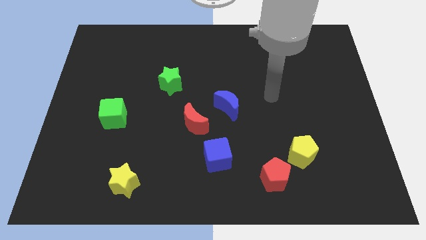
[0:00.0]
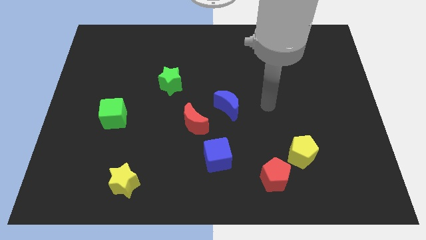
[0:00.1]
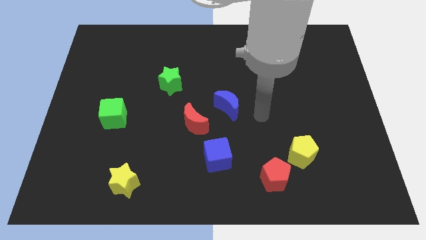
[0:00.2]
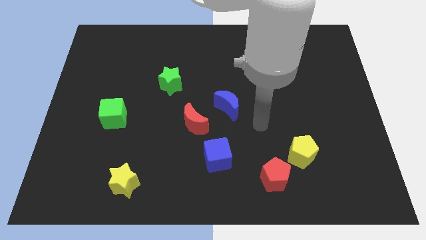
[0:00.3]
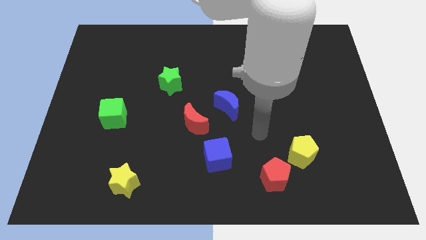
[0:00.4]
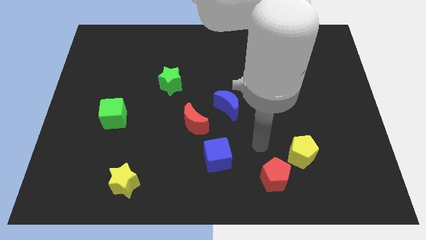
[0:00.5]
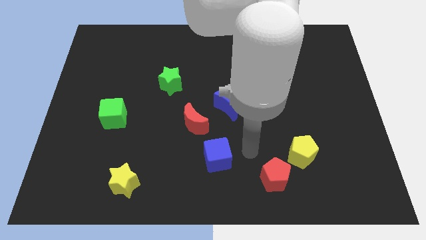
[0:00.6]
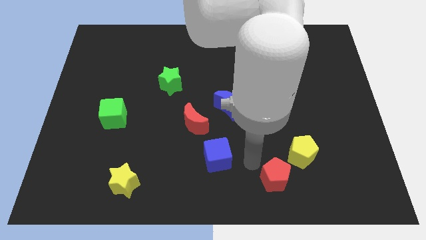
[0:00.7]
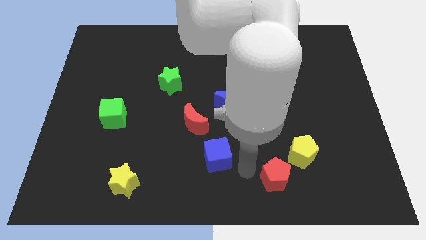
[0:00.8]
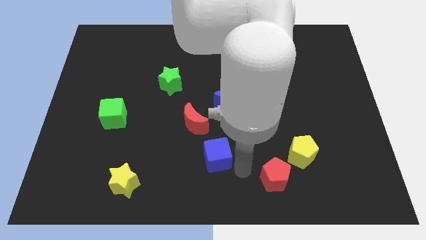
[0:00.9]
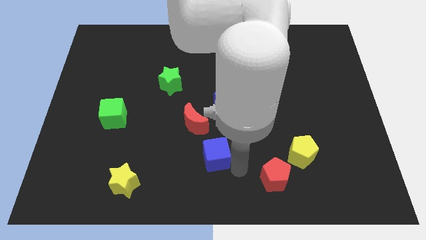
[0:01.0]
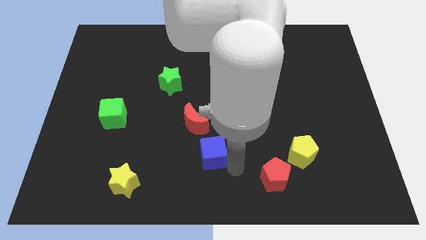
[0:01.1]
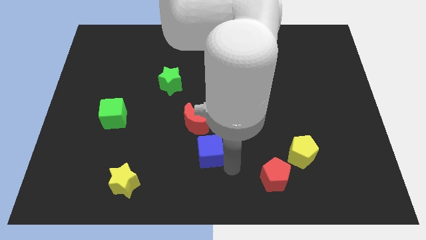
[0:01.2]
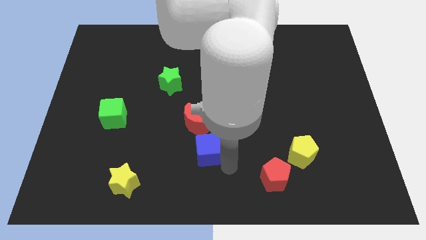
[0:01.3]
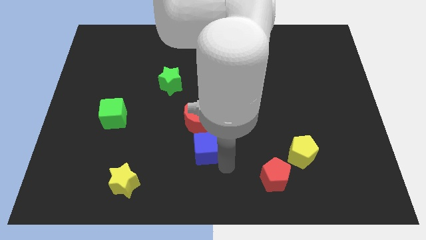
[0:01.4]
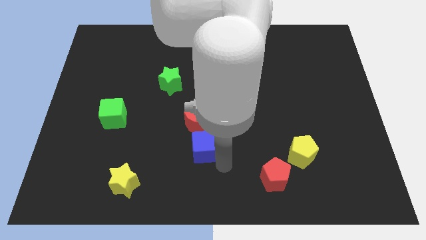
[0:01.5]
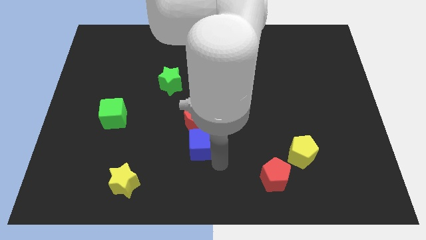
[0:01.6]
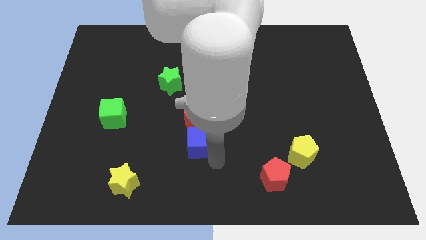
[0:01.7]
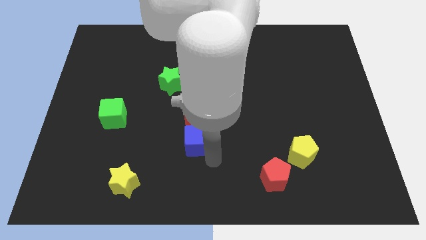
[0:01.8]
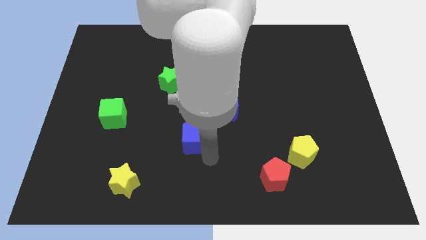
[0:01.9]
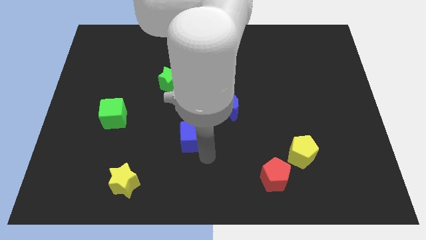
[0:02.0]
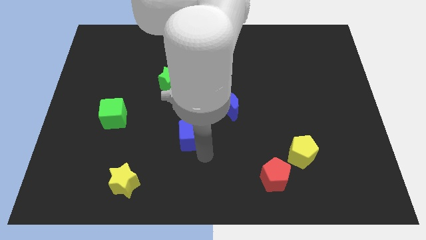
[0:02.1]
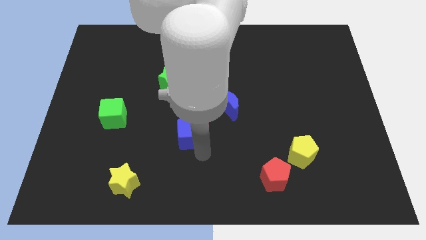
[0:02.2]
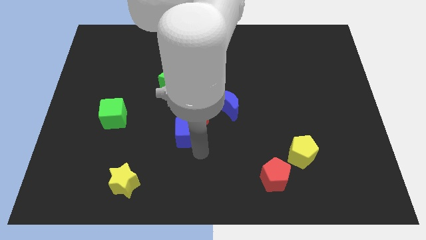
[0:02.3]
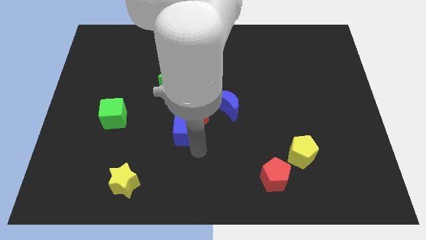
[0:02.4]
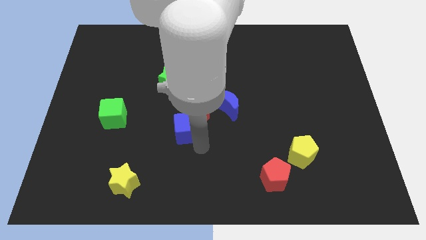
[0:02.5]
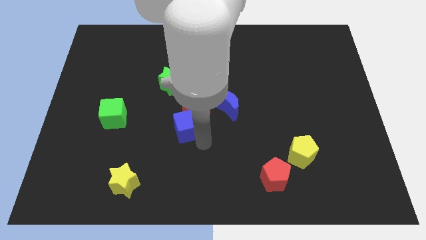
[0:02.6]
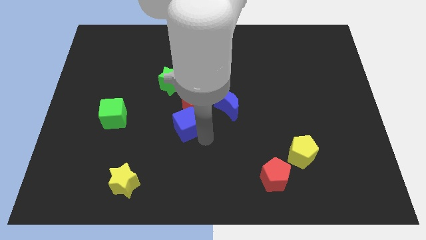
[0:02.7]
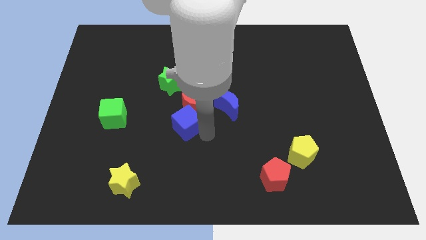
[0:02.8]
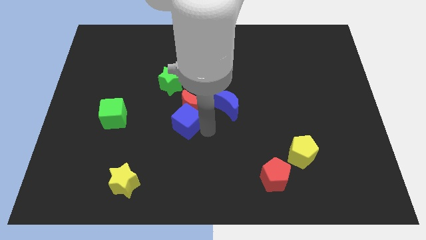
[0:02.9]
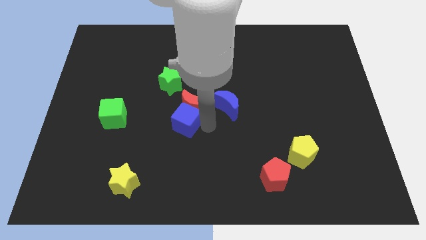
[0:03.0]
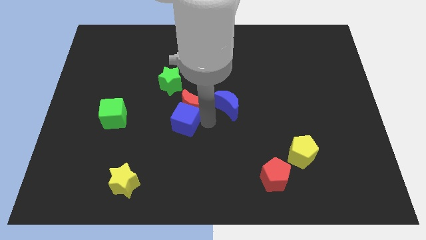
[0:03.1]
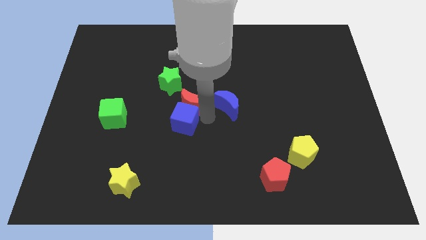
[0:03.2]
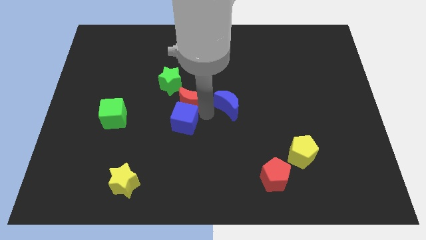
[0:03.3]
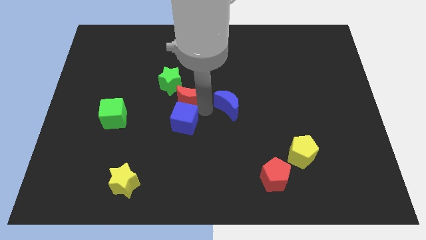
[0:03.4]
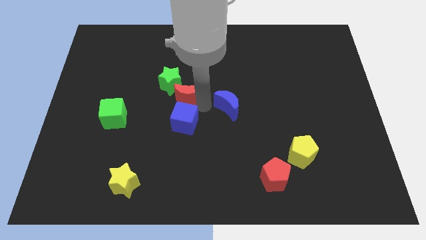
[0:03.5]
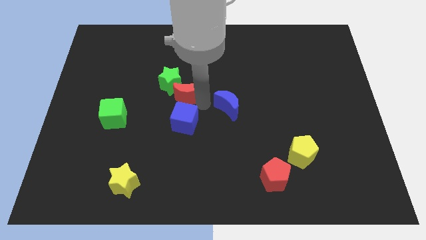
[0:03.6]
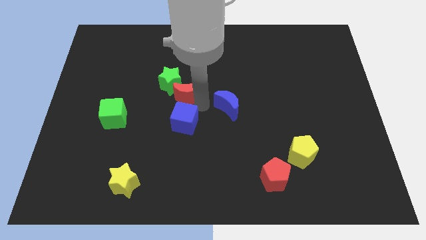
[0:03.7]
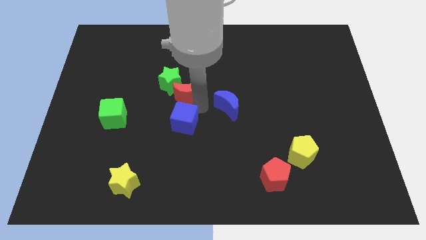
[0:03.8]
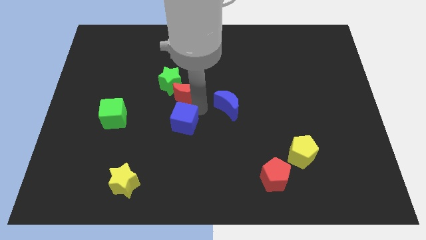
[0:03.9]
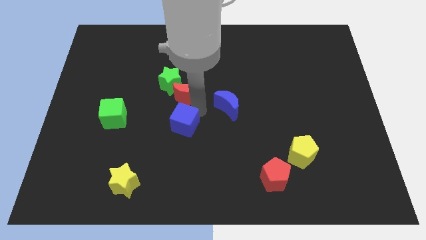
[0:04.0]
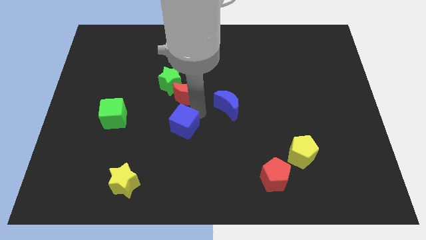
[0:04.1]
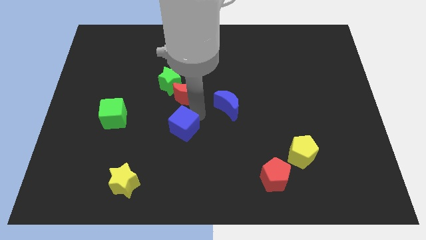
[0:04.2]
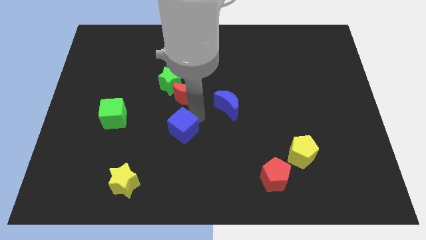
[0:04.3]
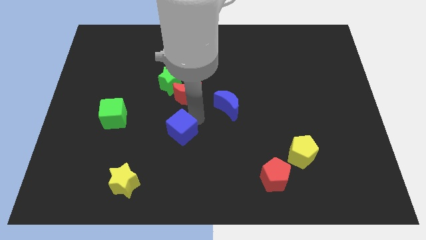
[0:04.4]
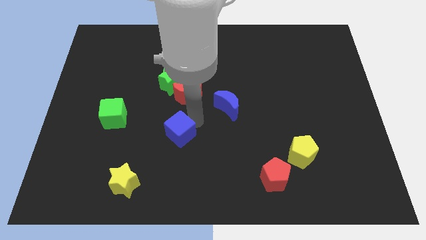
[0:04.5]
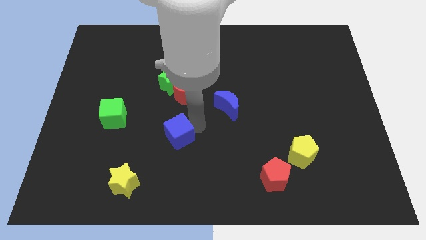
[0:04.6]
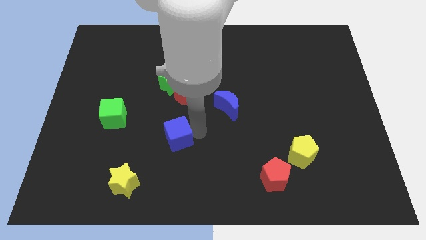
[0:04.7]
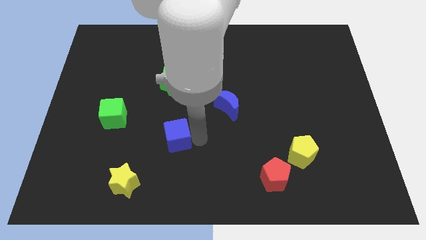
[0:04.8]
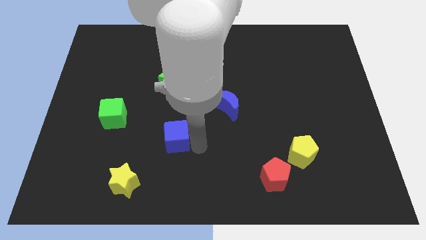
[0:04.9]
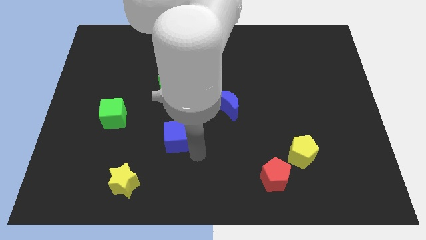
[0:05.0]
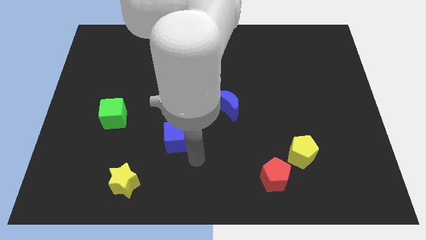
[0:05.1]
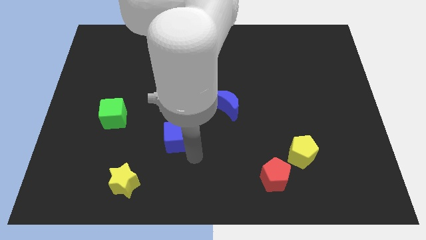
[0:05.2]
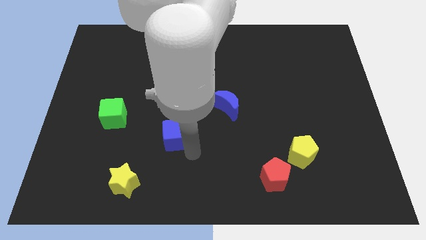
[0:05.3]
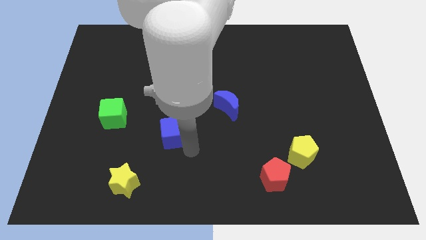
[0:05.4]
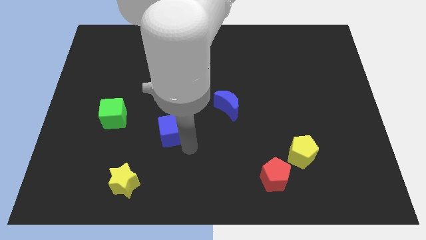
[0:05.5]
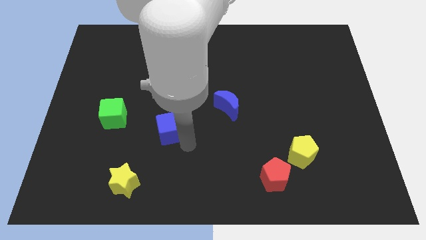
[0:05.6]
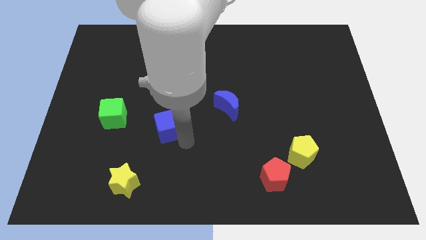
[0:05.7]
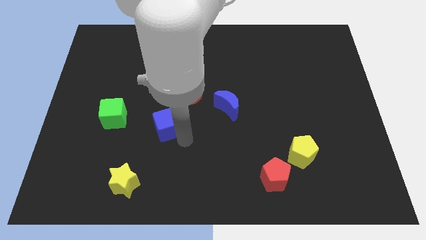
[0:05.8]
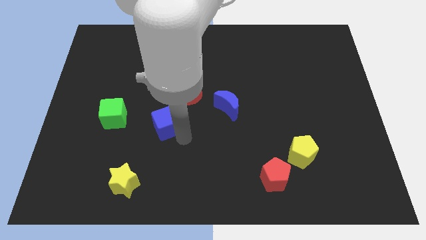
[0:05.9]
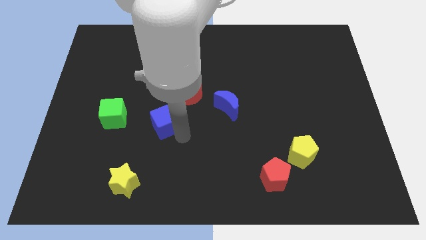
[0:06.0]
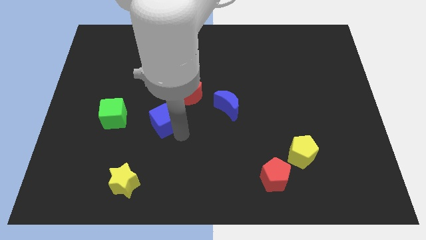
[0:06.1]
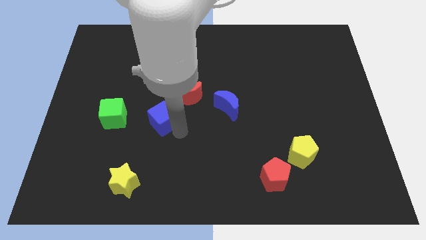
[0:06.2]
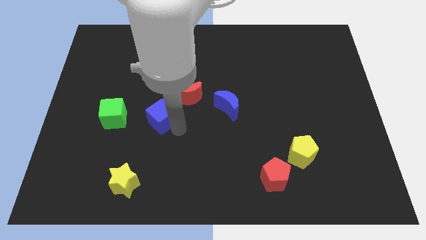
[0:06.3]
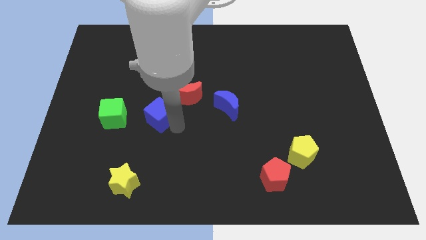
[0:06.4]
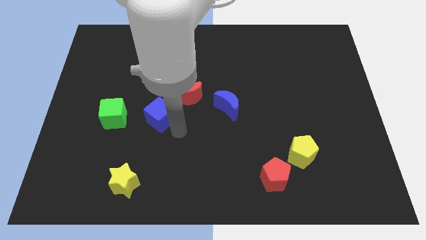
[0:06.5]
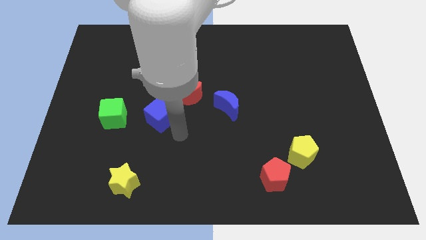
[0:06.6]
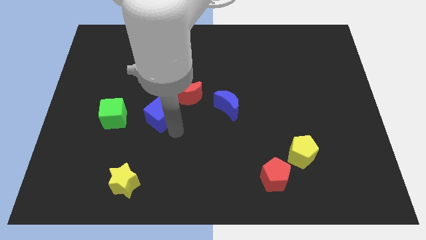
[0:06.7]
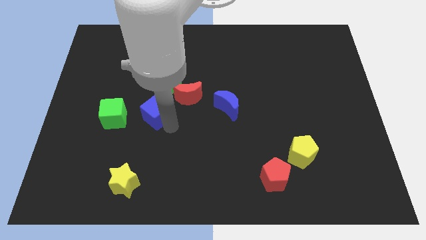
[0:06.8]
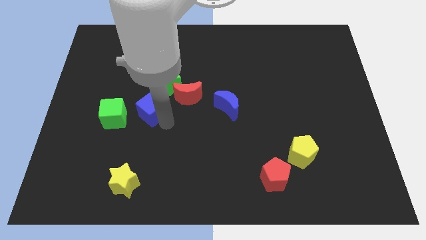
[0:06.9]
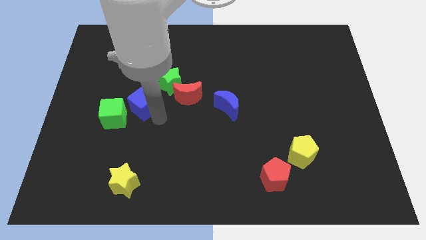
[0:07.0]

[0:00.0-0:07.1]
move the blue cube diagonally upwards and left

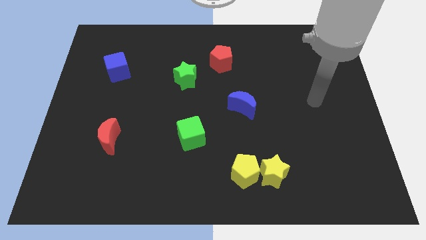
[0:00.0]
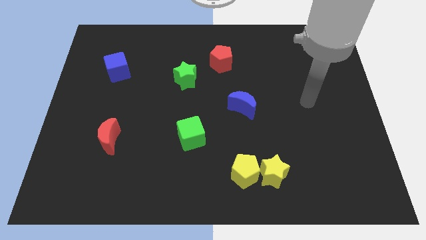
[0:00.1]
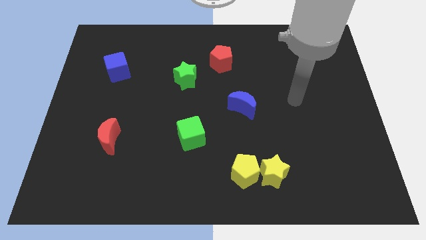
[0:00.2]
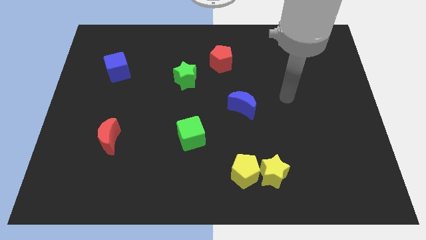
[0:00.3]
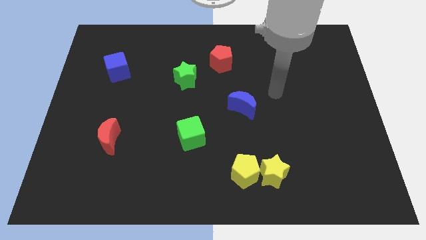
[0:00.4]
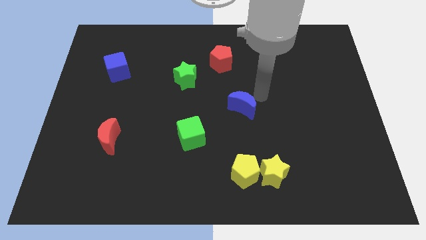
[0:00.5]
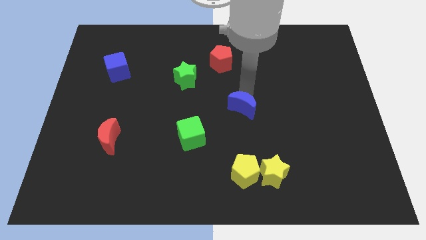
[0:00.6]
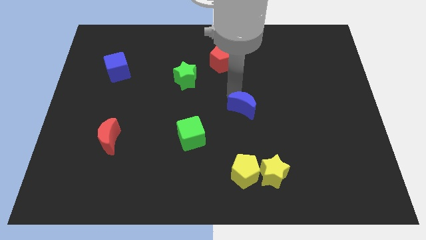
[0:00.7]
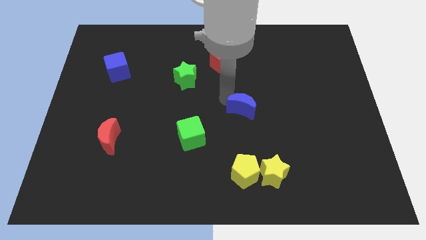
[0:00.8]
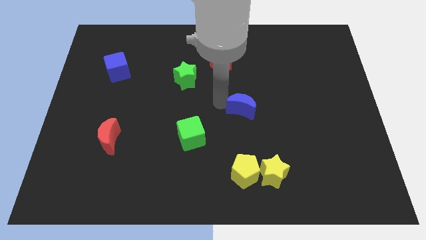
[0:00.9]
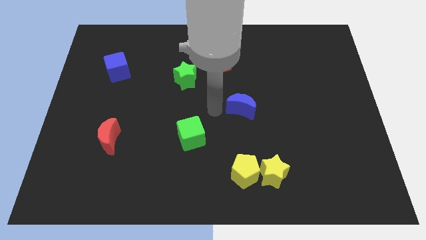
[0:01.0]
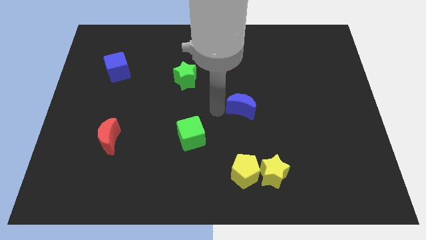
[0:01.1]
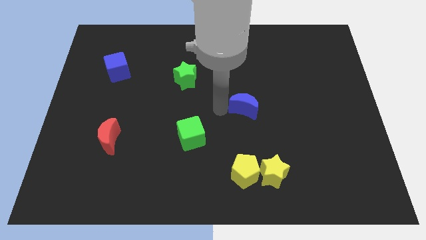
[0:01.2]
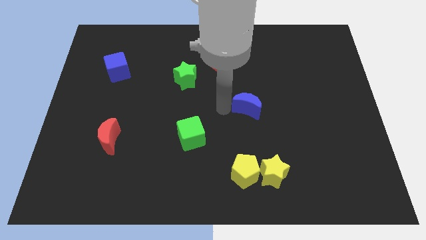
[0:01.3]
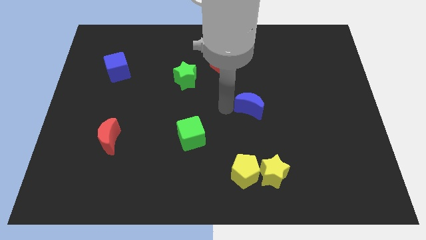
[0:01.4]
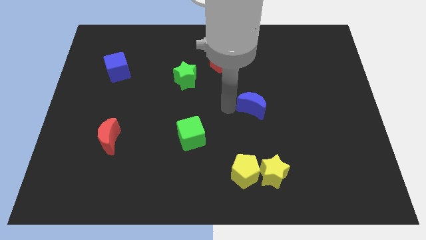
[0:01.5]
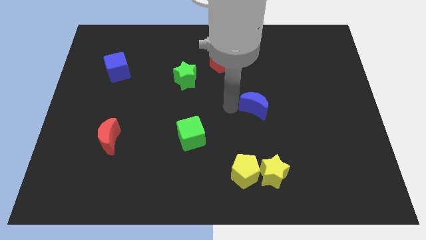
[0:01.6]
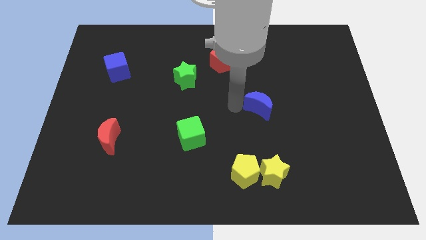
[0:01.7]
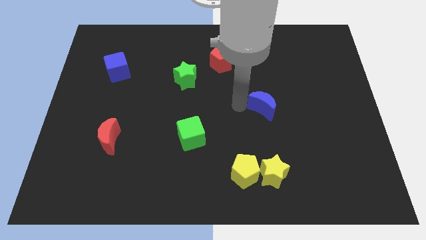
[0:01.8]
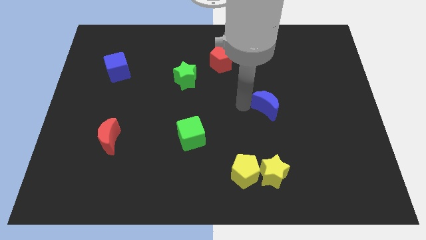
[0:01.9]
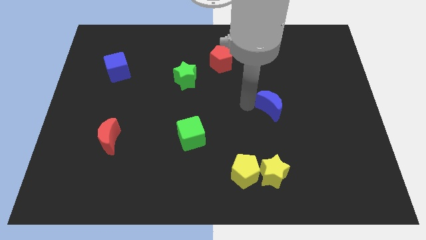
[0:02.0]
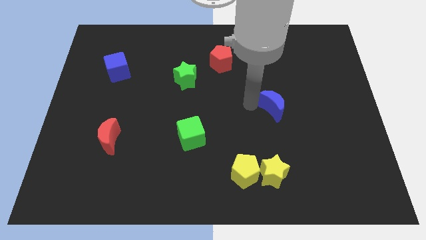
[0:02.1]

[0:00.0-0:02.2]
push the blue moon slightly right
